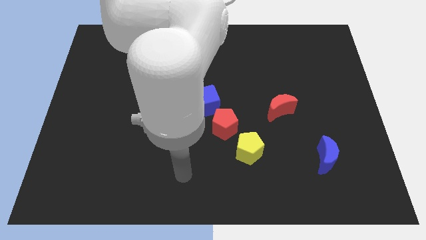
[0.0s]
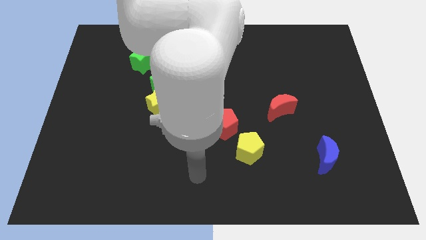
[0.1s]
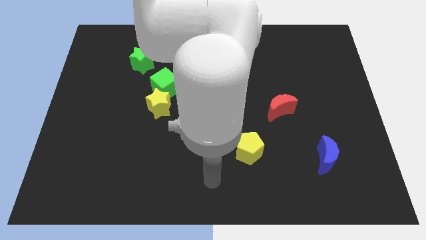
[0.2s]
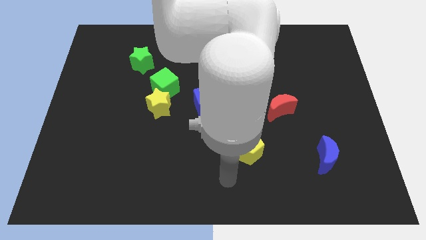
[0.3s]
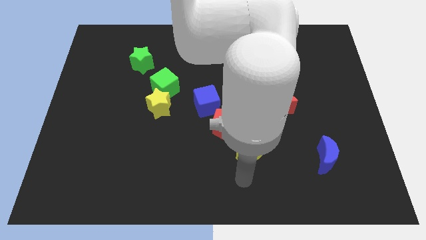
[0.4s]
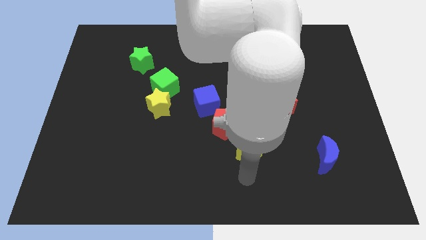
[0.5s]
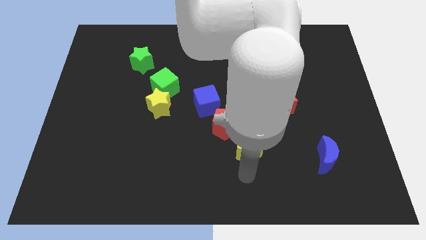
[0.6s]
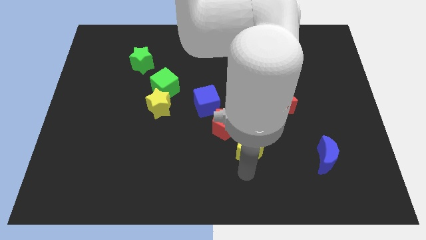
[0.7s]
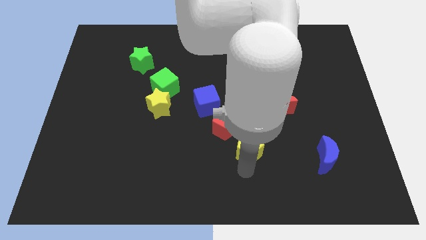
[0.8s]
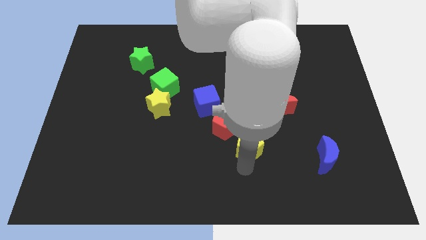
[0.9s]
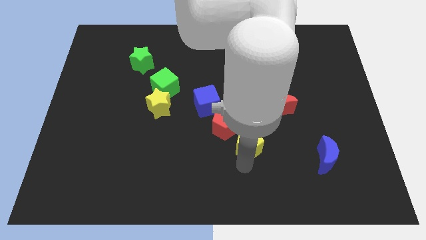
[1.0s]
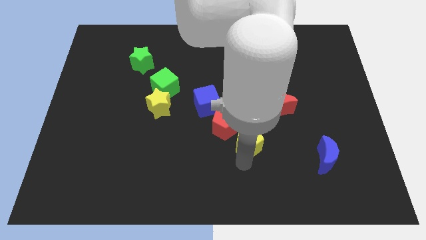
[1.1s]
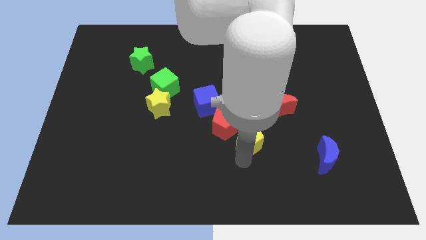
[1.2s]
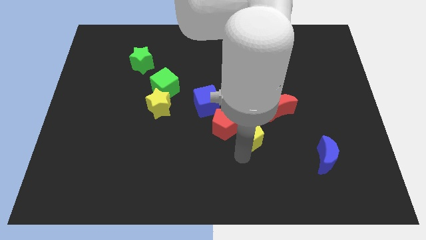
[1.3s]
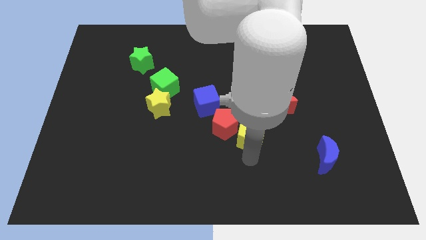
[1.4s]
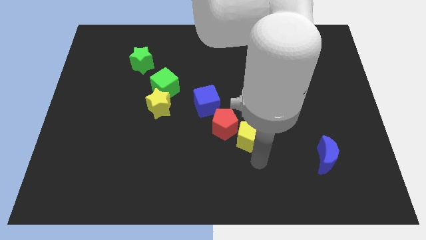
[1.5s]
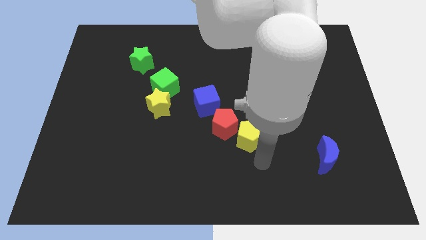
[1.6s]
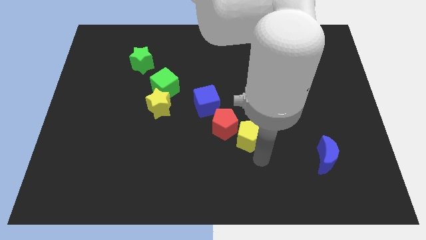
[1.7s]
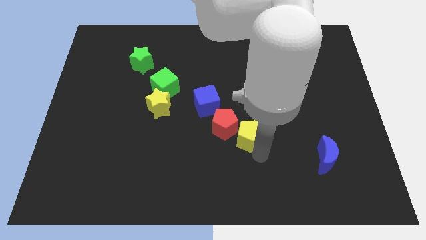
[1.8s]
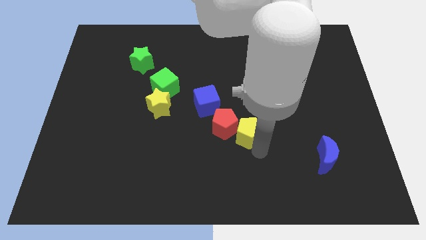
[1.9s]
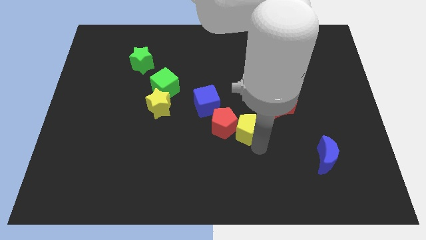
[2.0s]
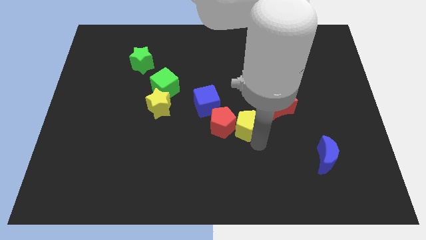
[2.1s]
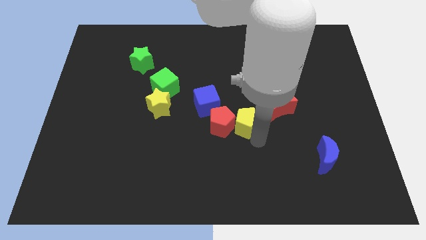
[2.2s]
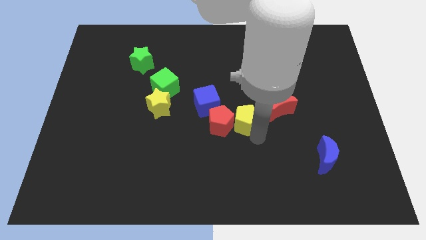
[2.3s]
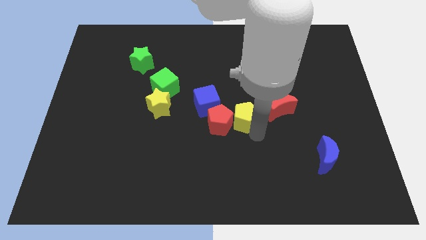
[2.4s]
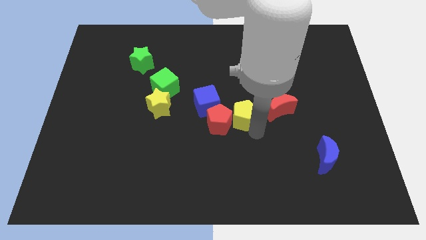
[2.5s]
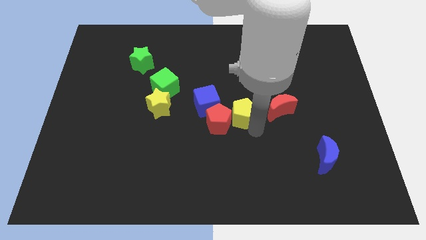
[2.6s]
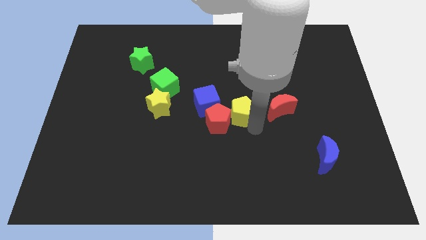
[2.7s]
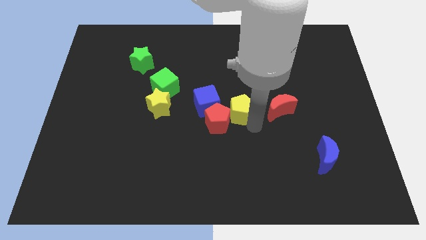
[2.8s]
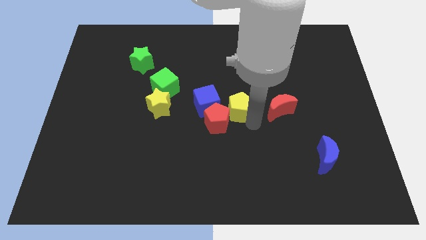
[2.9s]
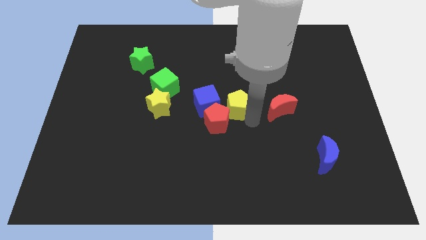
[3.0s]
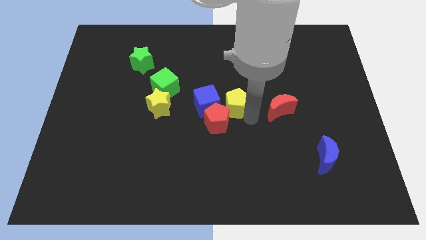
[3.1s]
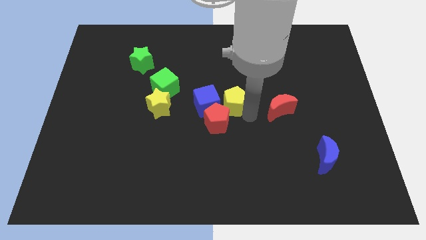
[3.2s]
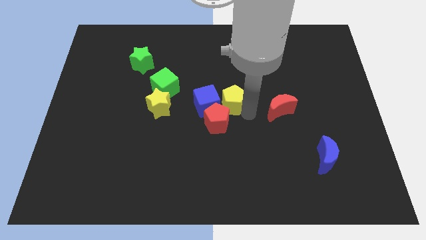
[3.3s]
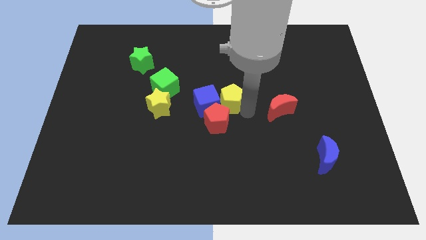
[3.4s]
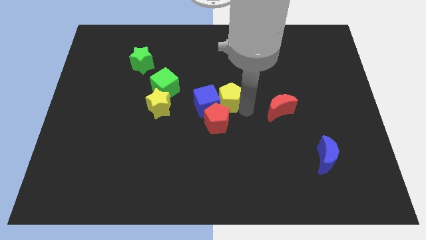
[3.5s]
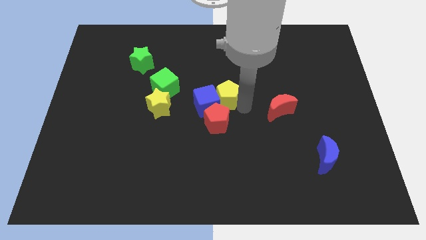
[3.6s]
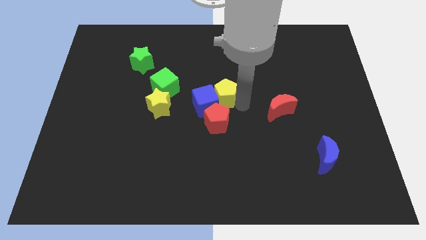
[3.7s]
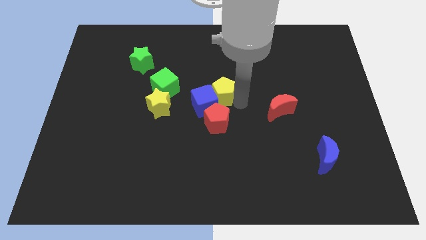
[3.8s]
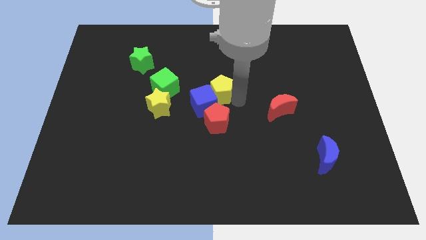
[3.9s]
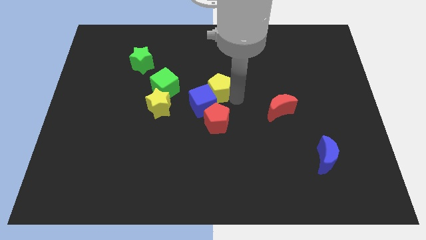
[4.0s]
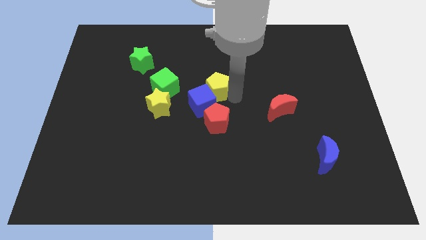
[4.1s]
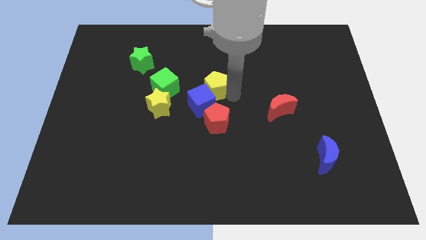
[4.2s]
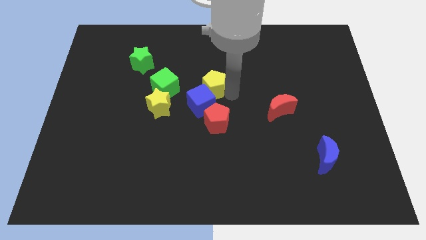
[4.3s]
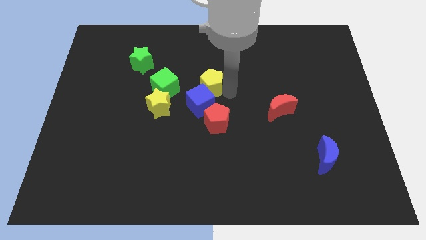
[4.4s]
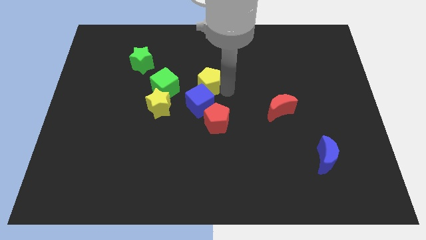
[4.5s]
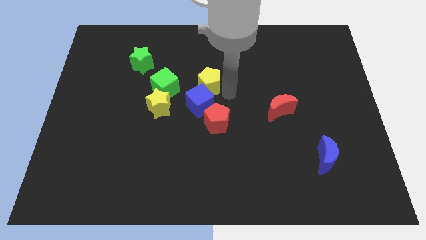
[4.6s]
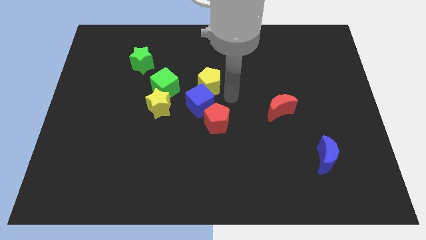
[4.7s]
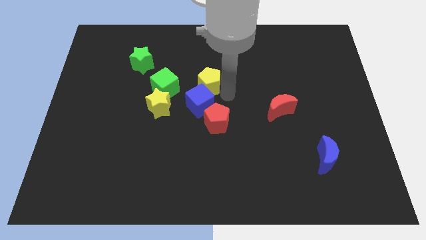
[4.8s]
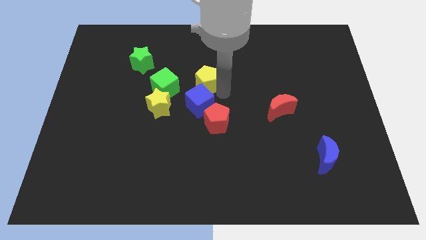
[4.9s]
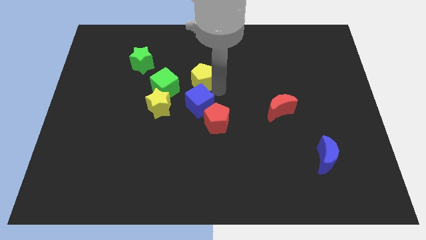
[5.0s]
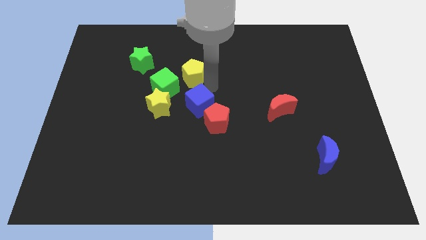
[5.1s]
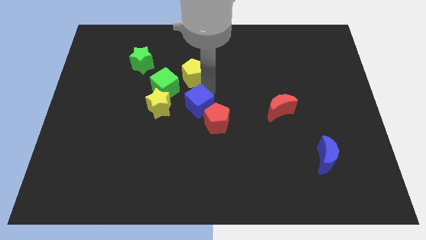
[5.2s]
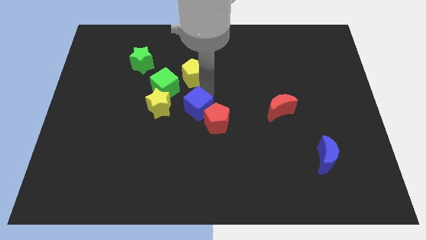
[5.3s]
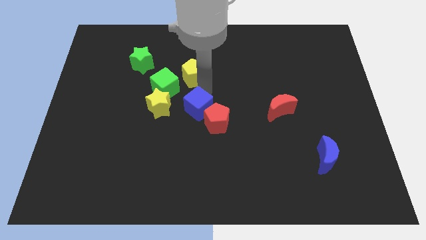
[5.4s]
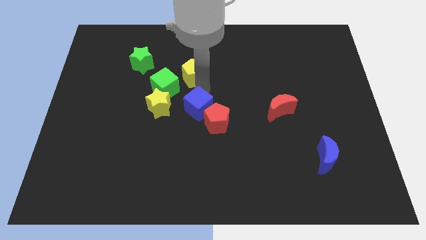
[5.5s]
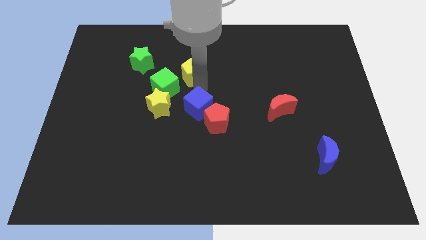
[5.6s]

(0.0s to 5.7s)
put the yellow pentagon right of the green star

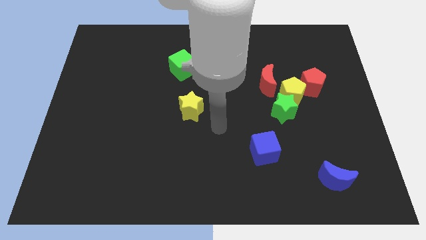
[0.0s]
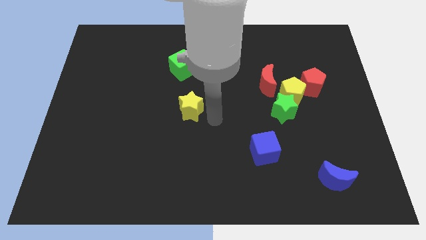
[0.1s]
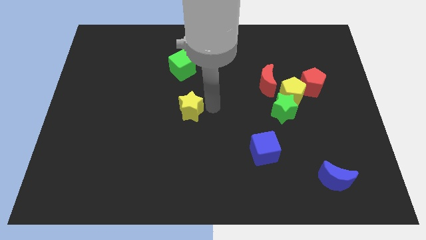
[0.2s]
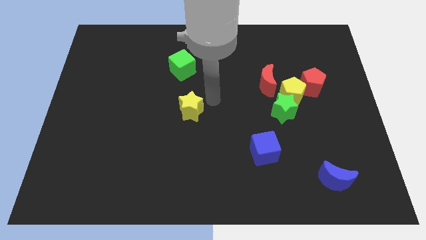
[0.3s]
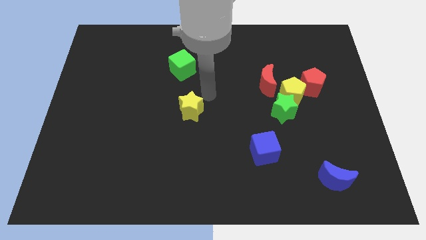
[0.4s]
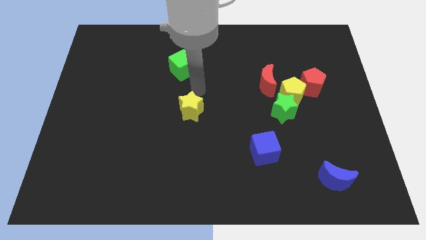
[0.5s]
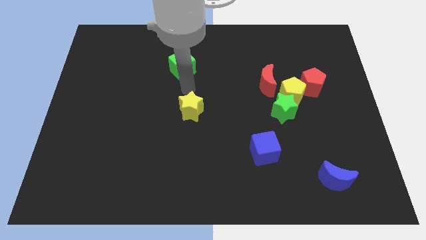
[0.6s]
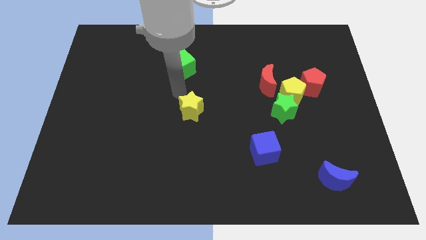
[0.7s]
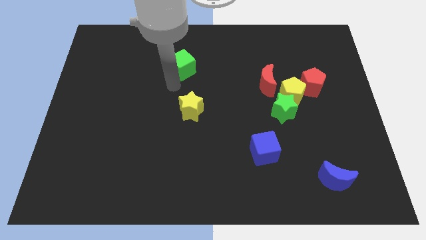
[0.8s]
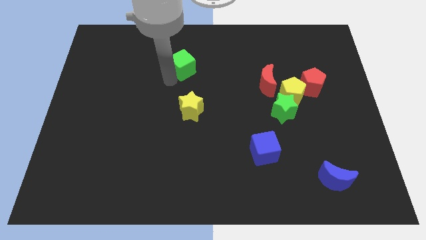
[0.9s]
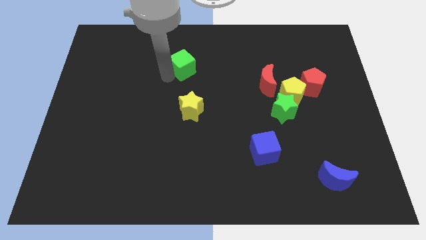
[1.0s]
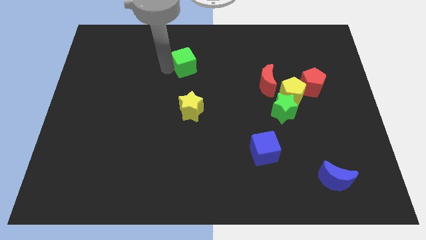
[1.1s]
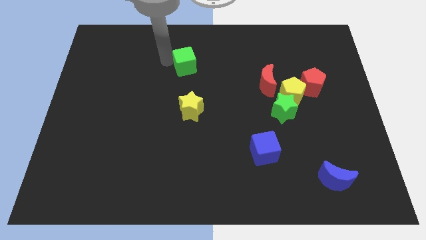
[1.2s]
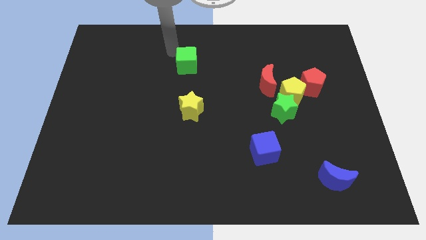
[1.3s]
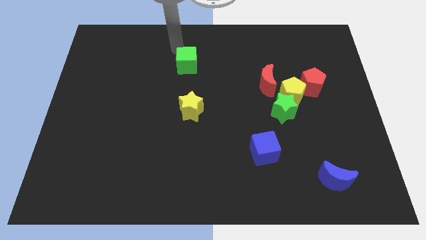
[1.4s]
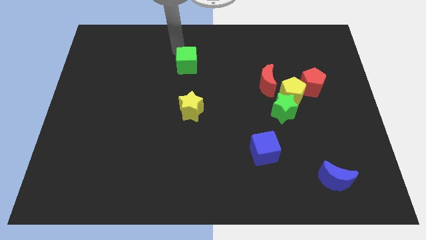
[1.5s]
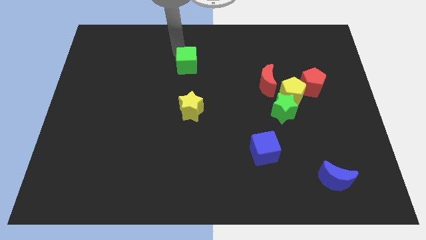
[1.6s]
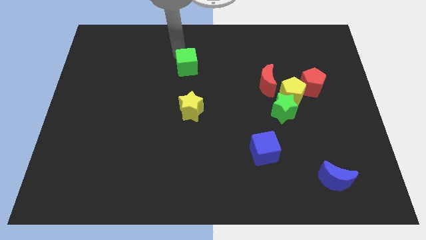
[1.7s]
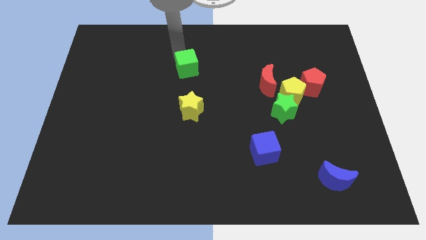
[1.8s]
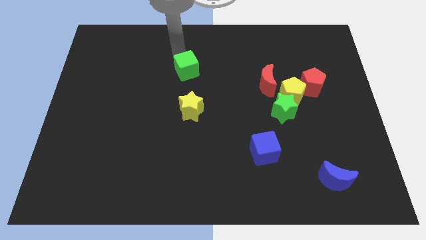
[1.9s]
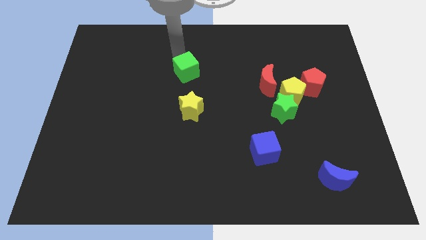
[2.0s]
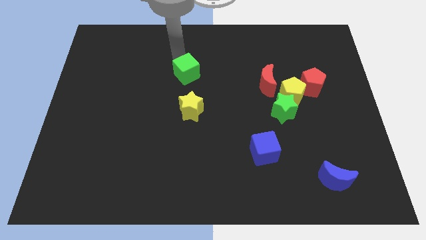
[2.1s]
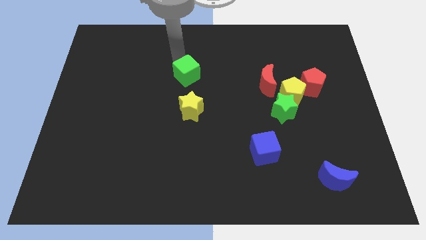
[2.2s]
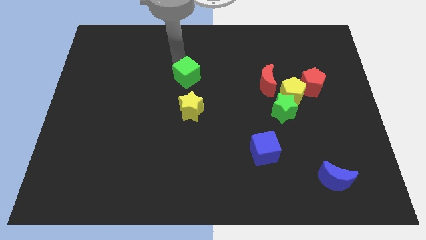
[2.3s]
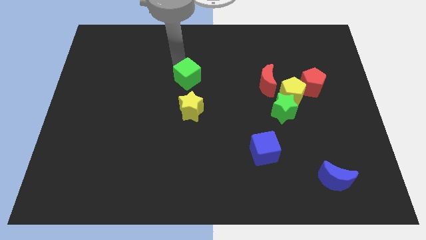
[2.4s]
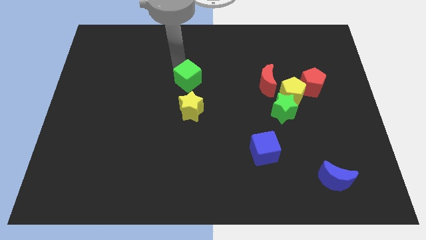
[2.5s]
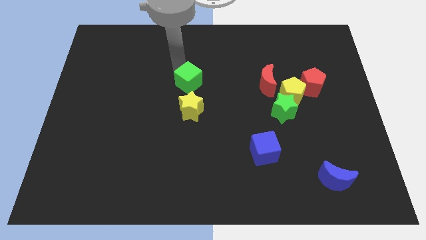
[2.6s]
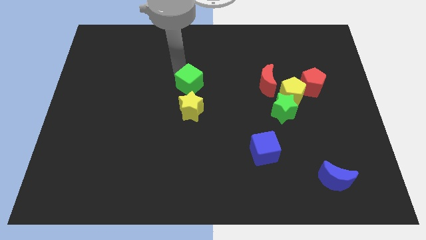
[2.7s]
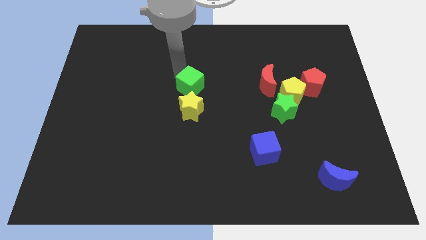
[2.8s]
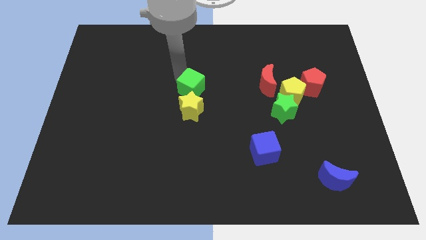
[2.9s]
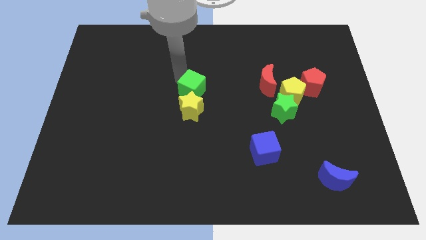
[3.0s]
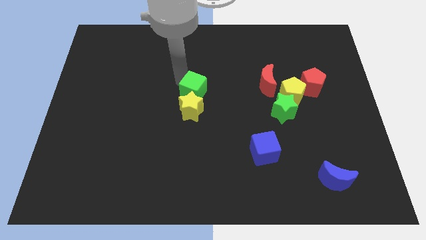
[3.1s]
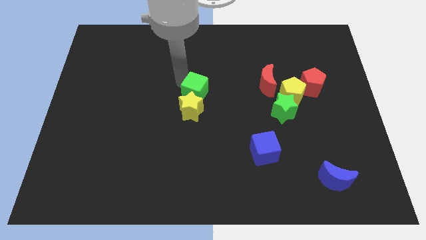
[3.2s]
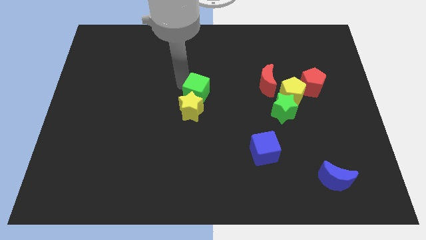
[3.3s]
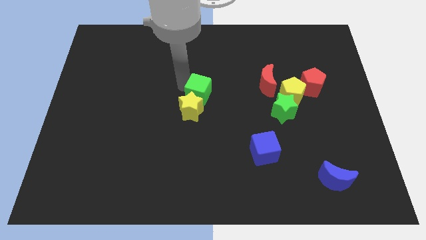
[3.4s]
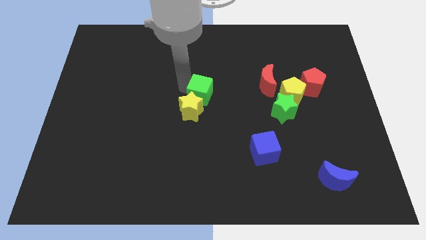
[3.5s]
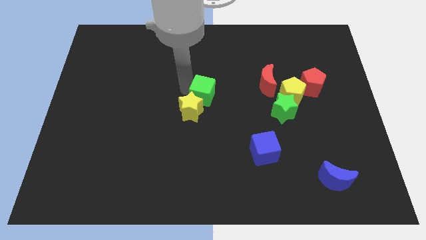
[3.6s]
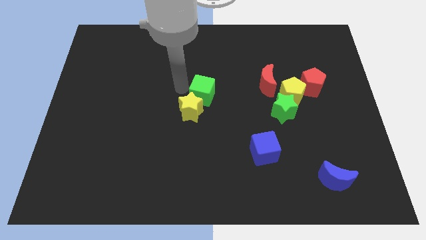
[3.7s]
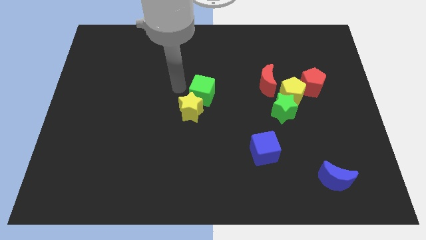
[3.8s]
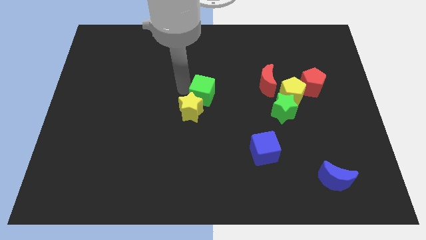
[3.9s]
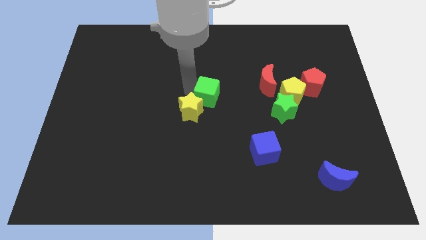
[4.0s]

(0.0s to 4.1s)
move the green cube to the right side of the yellow star
